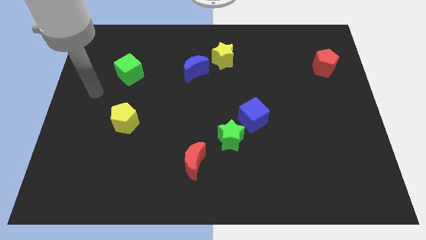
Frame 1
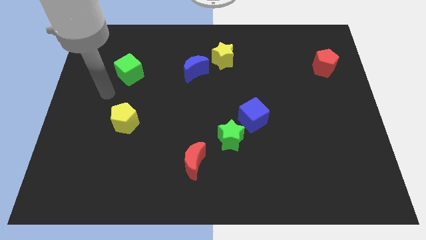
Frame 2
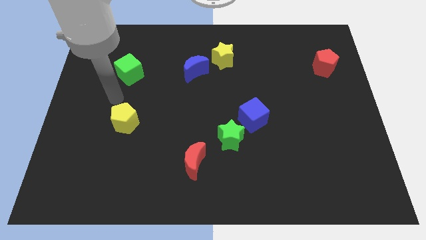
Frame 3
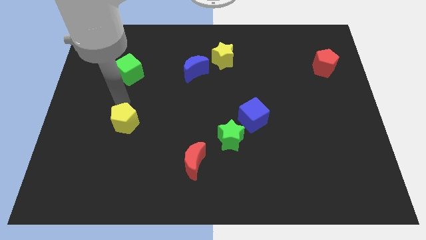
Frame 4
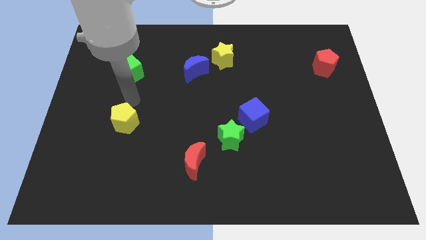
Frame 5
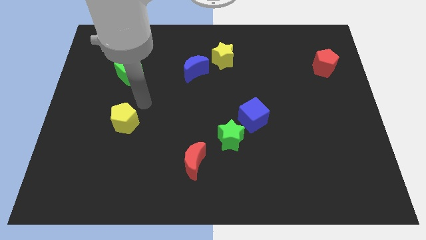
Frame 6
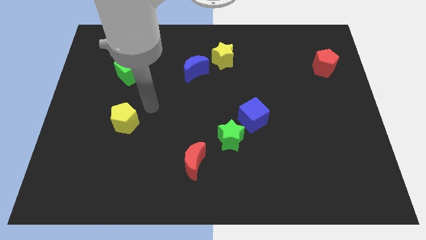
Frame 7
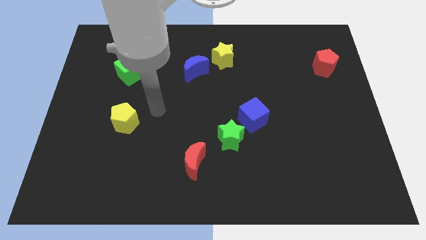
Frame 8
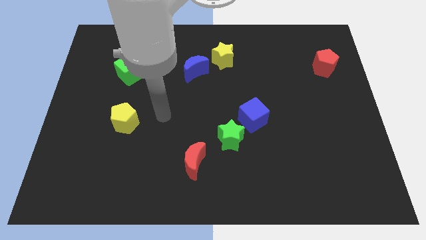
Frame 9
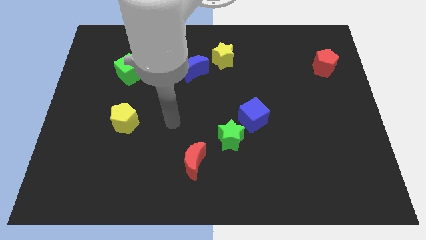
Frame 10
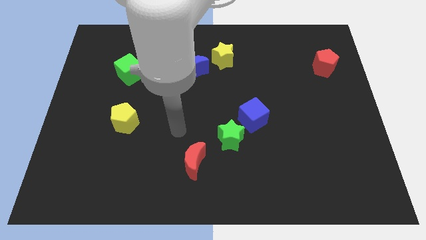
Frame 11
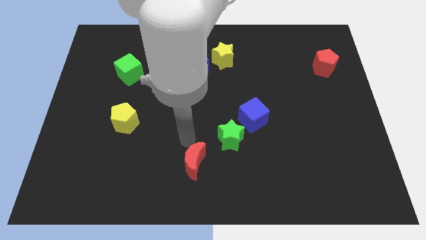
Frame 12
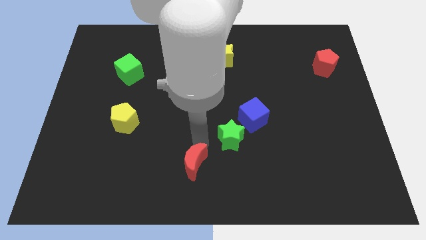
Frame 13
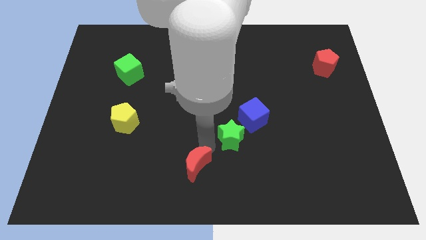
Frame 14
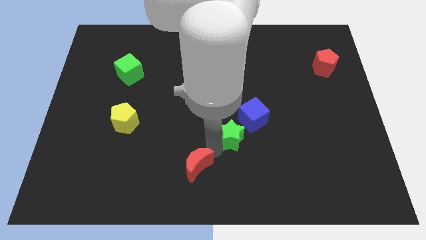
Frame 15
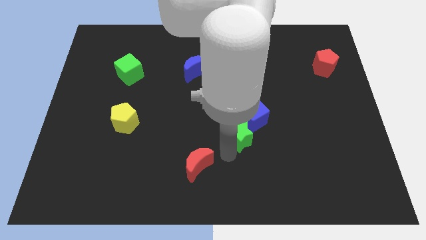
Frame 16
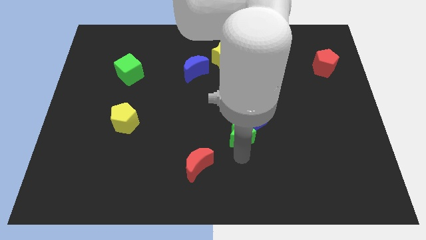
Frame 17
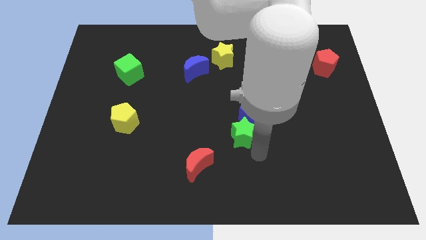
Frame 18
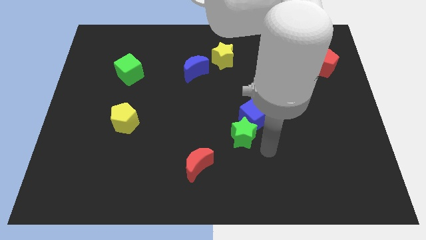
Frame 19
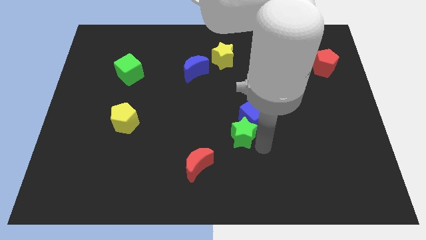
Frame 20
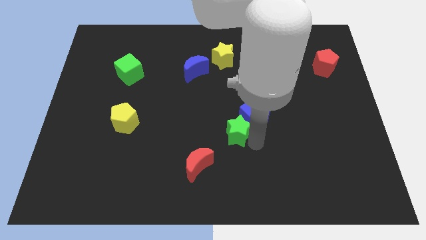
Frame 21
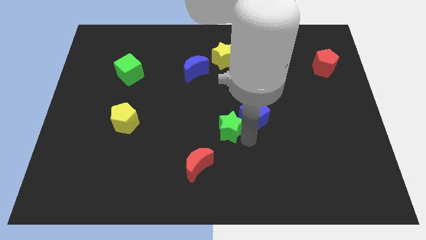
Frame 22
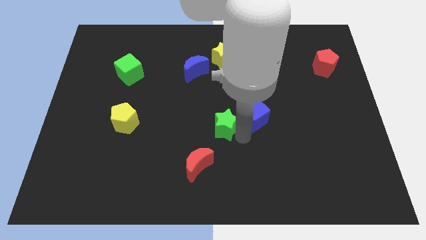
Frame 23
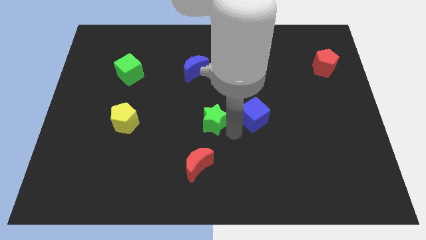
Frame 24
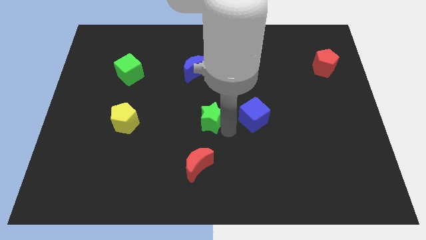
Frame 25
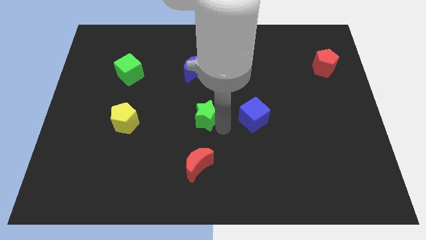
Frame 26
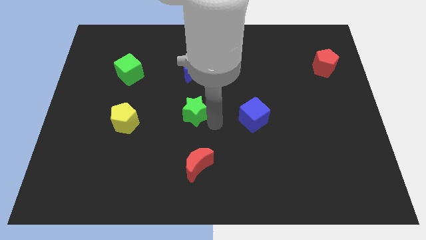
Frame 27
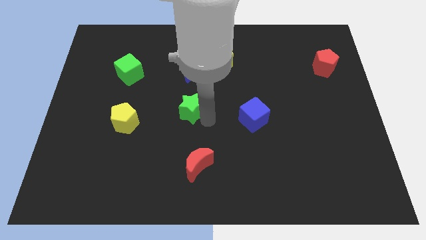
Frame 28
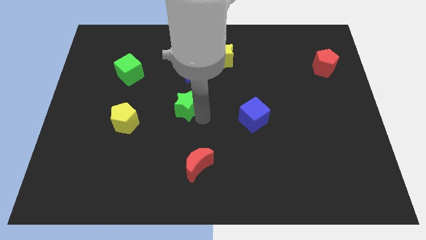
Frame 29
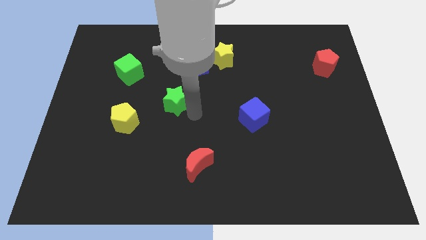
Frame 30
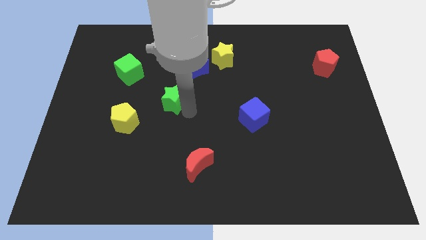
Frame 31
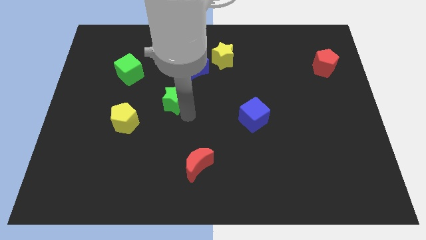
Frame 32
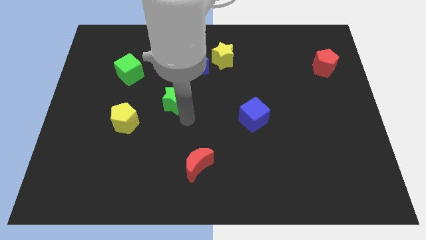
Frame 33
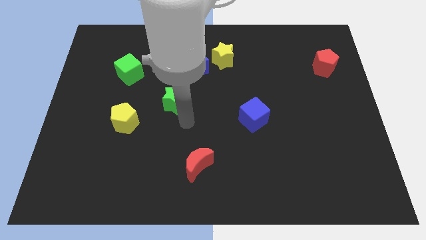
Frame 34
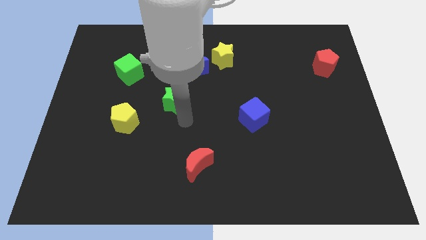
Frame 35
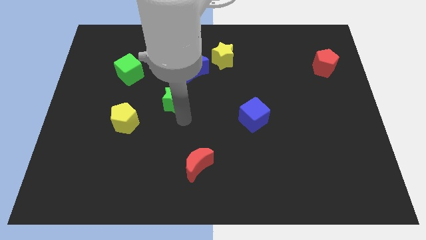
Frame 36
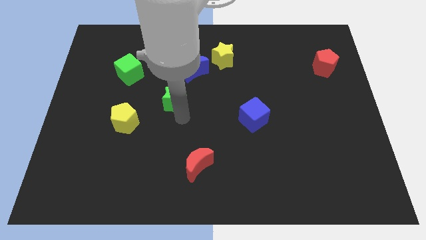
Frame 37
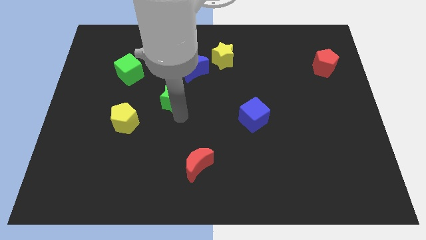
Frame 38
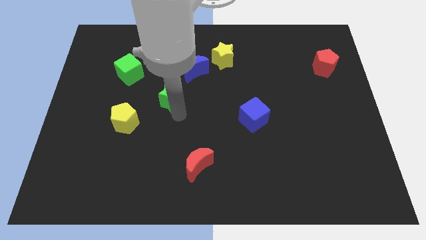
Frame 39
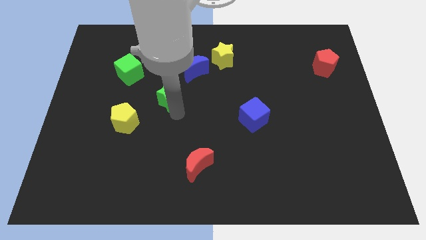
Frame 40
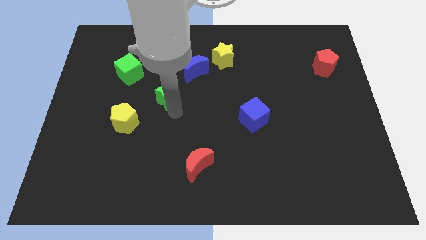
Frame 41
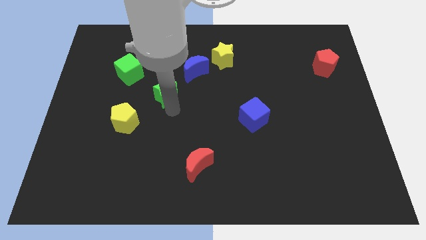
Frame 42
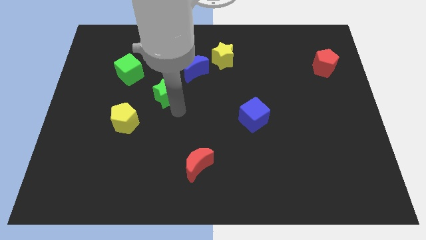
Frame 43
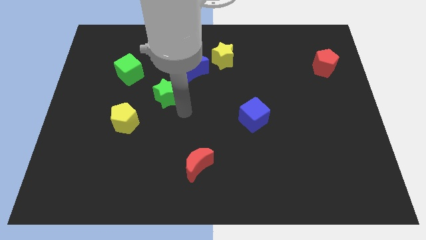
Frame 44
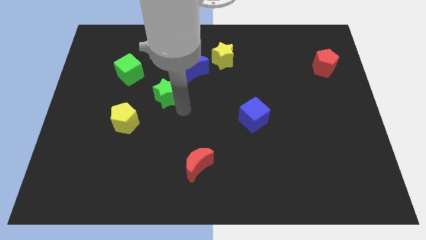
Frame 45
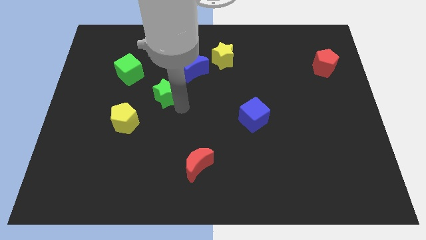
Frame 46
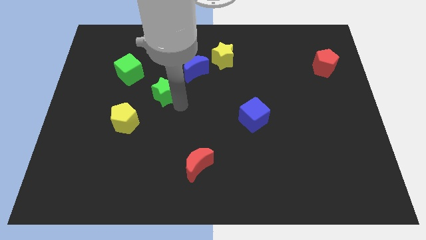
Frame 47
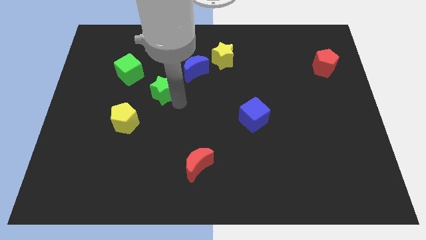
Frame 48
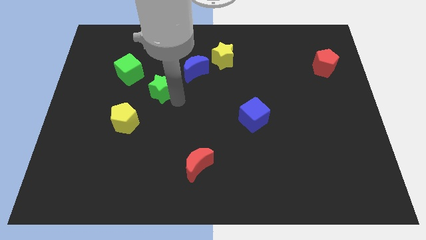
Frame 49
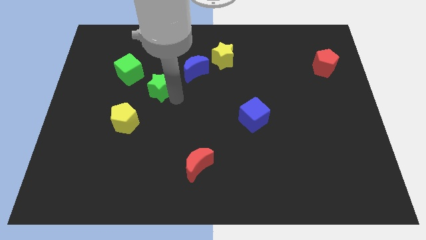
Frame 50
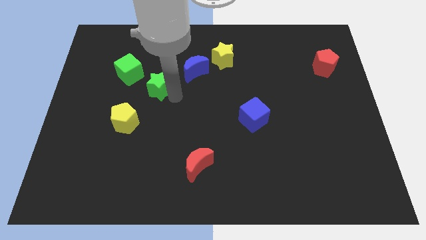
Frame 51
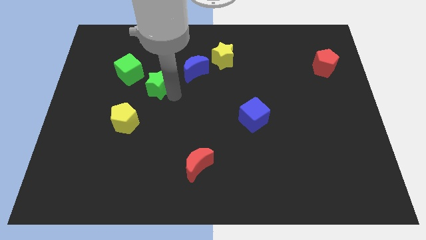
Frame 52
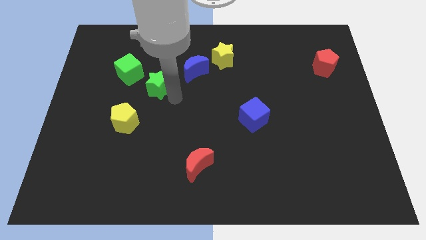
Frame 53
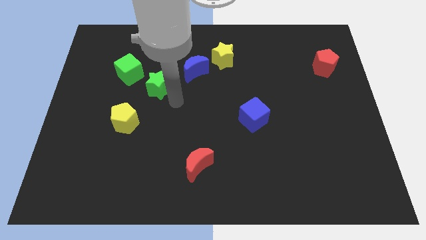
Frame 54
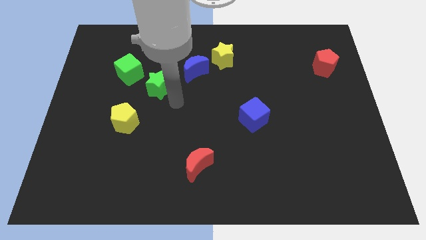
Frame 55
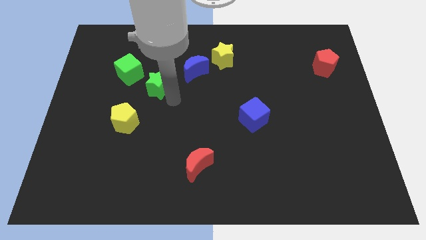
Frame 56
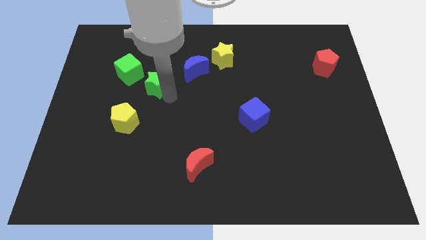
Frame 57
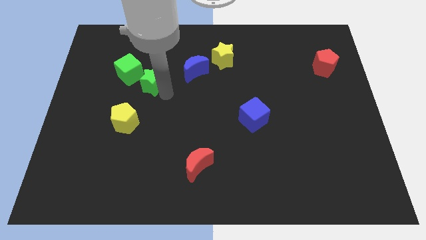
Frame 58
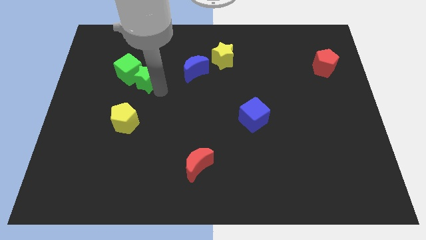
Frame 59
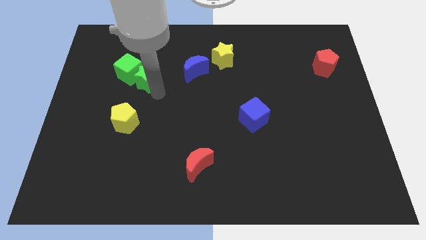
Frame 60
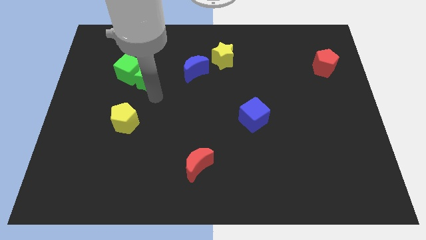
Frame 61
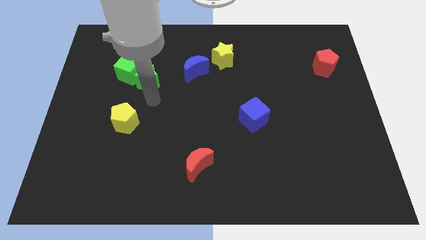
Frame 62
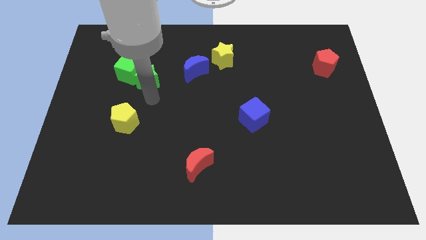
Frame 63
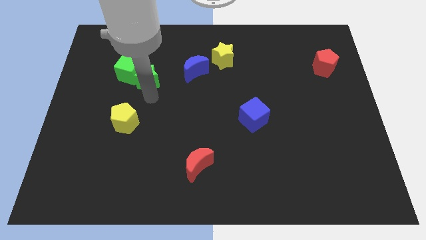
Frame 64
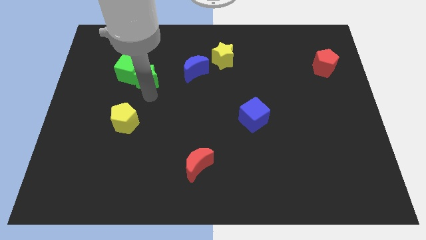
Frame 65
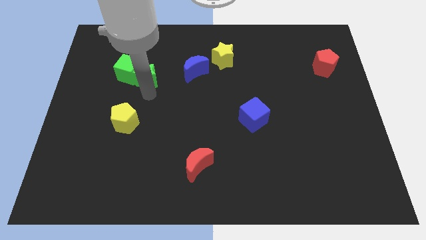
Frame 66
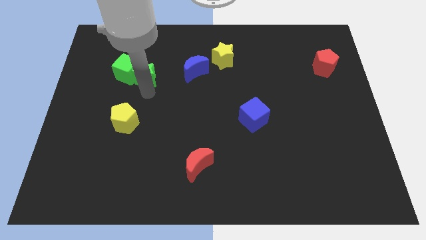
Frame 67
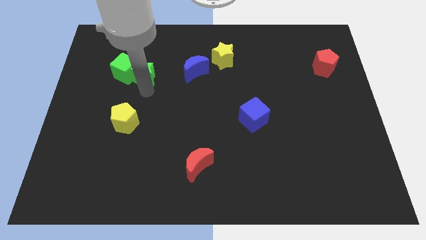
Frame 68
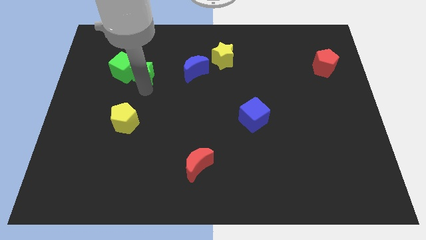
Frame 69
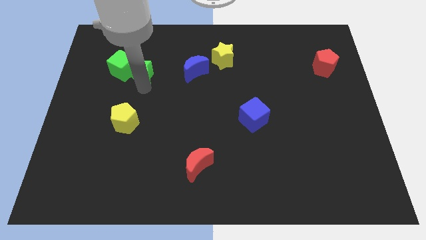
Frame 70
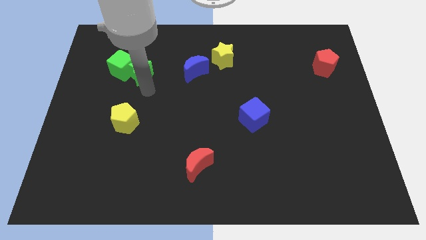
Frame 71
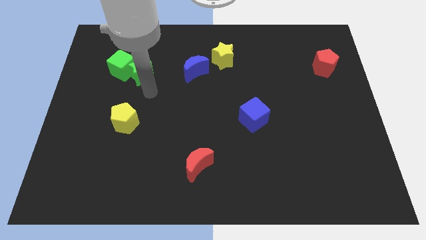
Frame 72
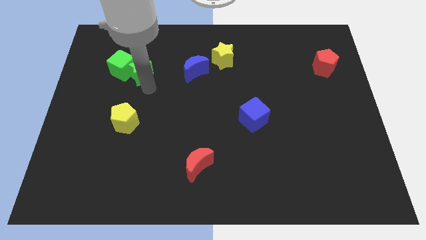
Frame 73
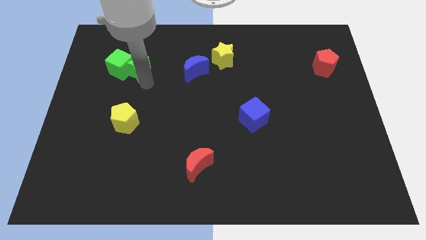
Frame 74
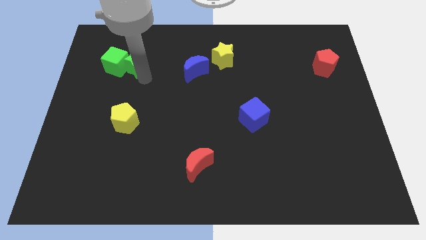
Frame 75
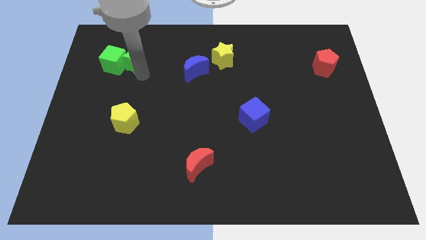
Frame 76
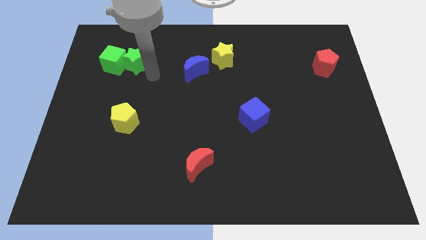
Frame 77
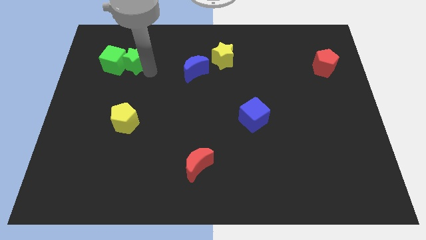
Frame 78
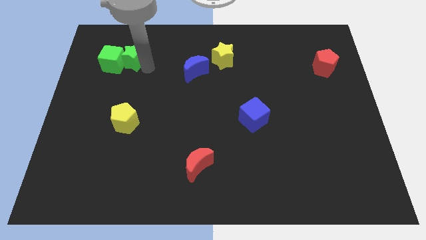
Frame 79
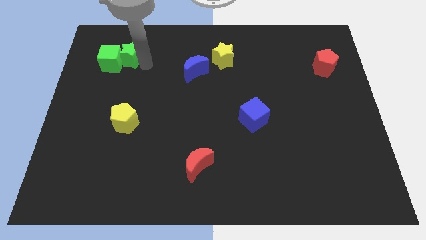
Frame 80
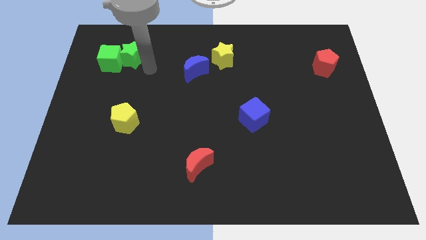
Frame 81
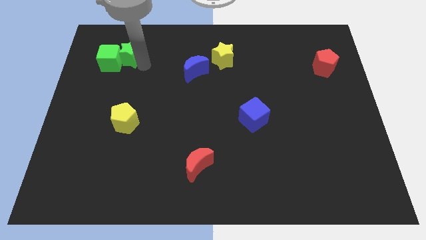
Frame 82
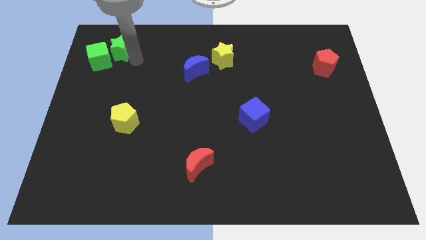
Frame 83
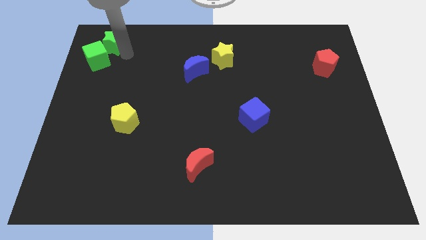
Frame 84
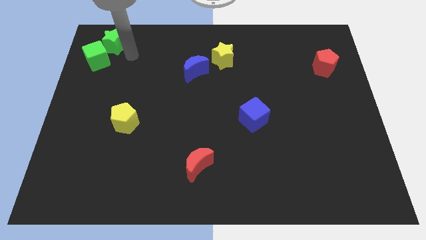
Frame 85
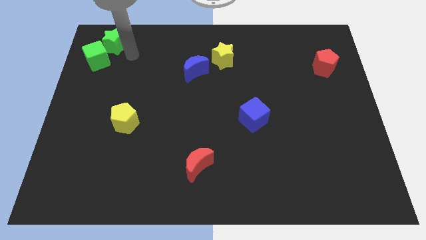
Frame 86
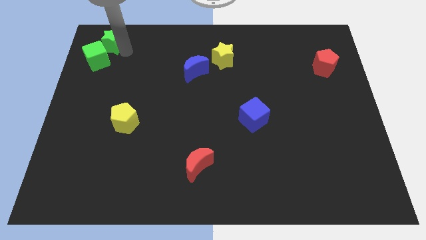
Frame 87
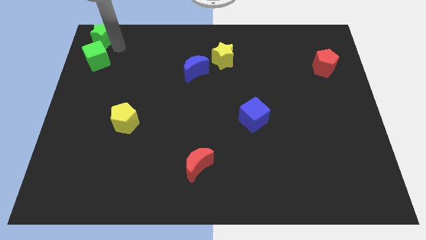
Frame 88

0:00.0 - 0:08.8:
slide the green star to the upper left corner
